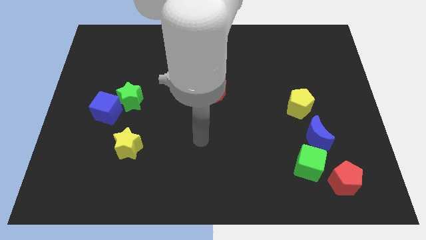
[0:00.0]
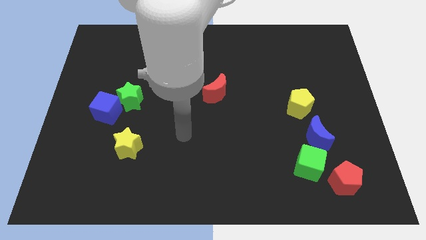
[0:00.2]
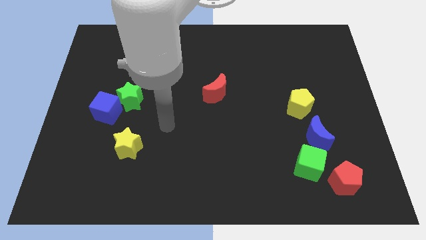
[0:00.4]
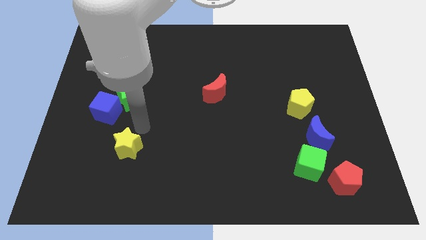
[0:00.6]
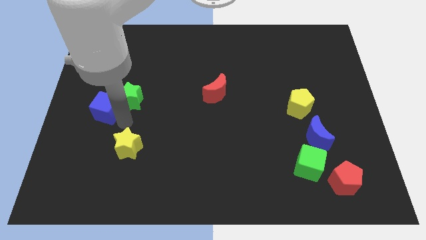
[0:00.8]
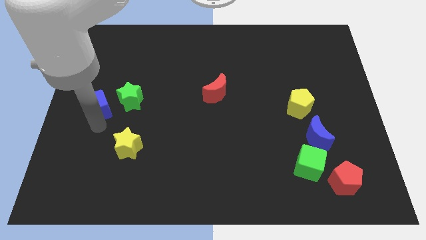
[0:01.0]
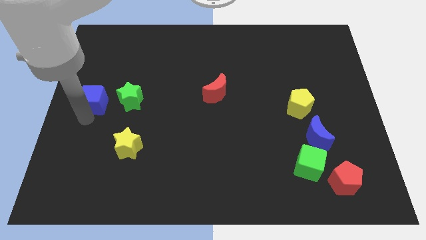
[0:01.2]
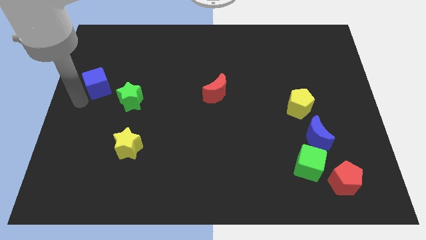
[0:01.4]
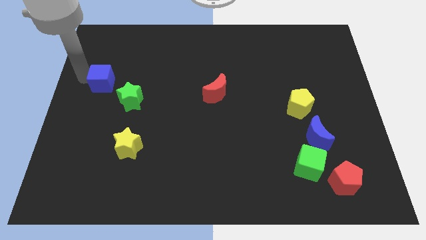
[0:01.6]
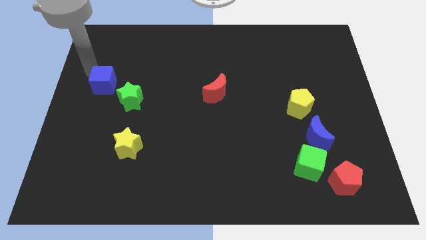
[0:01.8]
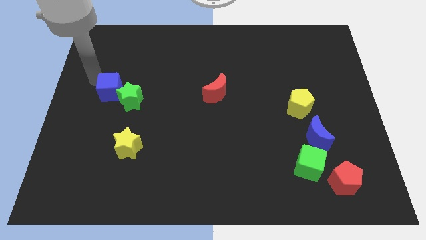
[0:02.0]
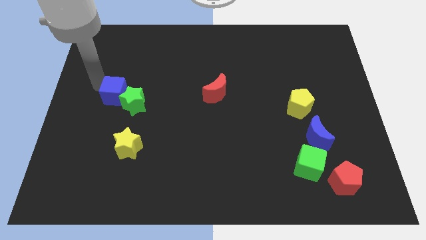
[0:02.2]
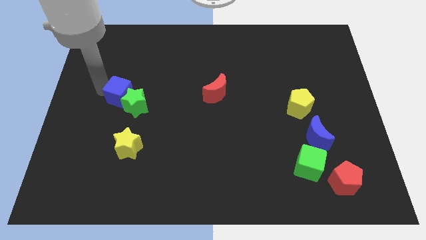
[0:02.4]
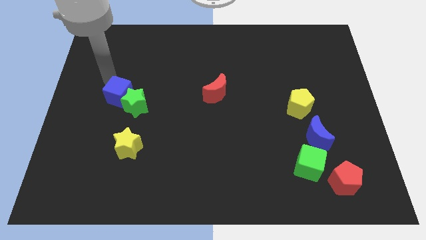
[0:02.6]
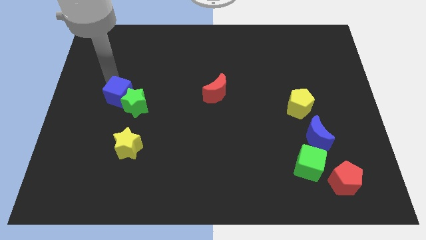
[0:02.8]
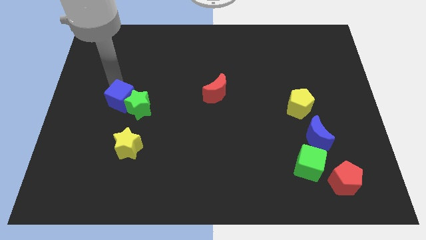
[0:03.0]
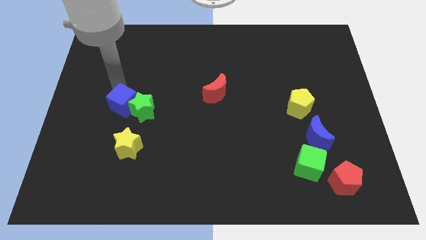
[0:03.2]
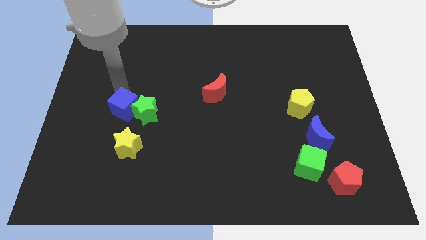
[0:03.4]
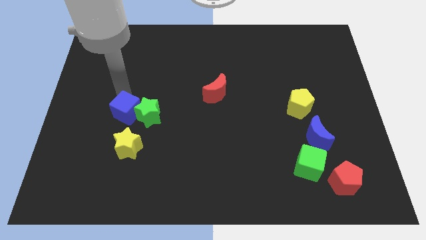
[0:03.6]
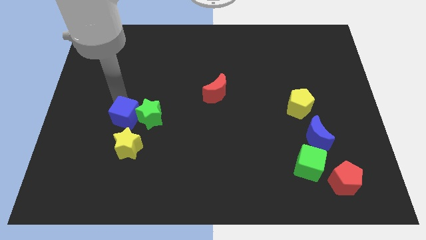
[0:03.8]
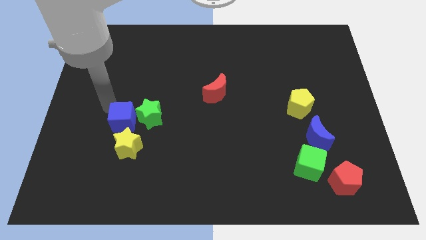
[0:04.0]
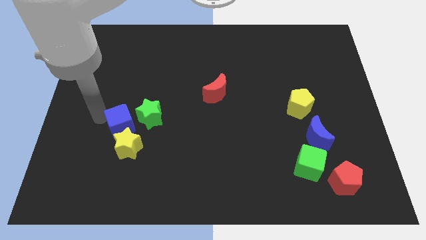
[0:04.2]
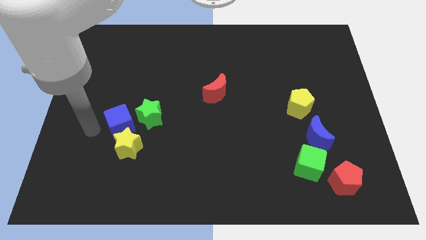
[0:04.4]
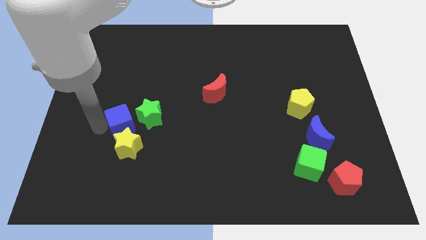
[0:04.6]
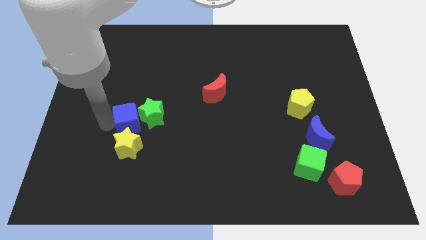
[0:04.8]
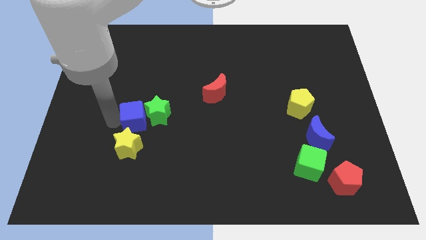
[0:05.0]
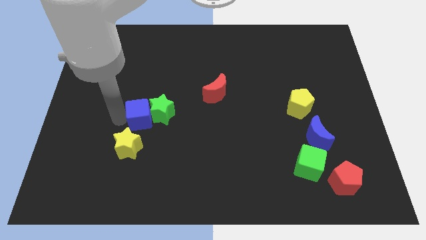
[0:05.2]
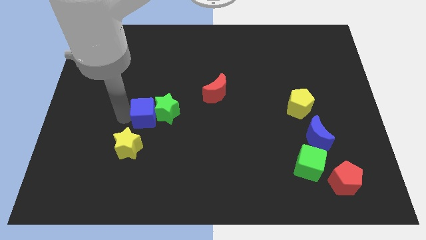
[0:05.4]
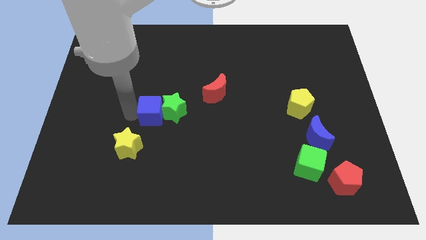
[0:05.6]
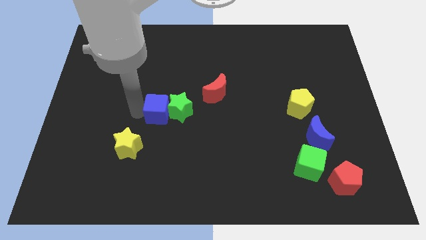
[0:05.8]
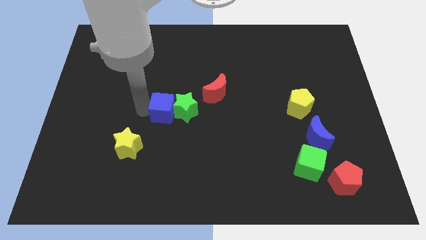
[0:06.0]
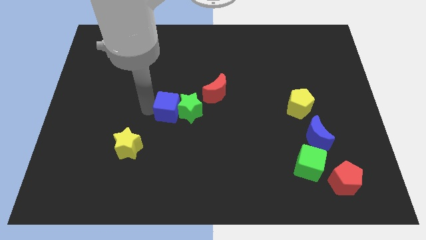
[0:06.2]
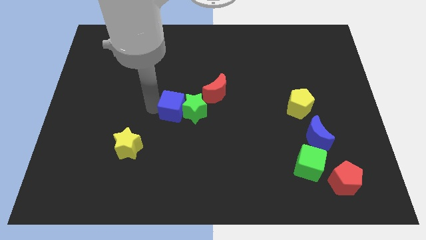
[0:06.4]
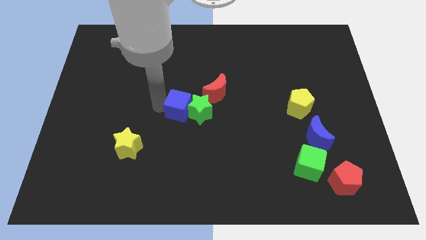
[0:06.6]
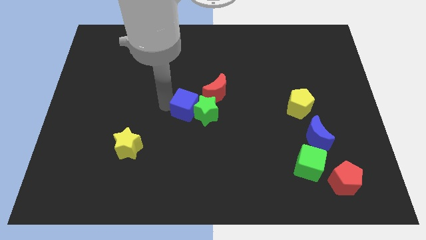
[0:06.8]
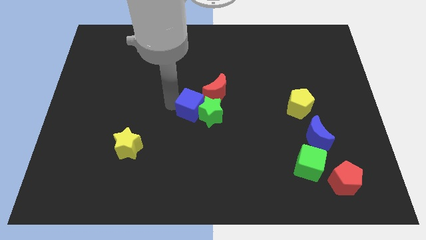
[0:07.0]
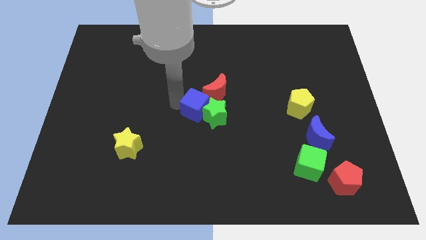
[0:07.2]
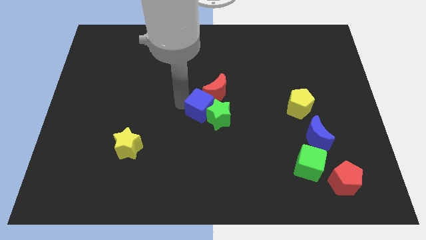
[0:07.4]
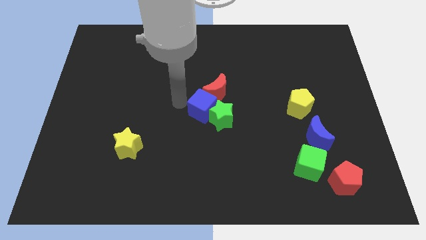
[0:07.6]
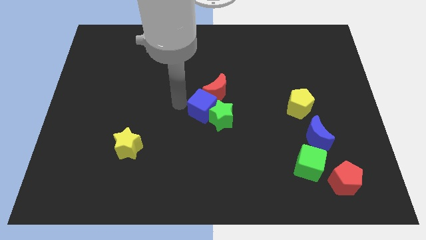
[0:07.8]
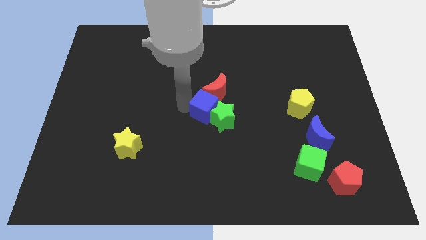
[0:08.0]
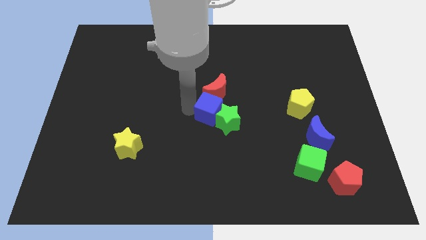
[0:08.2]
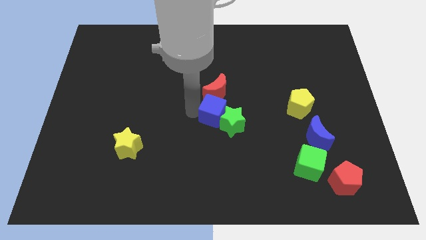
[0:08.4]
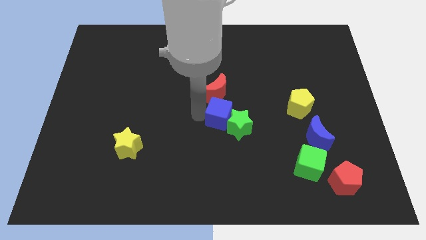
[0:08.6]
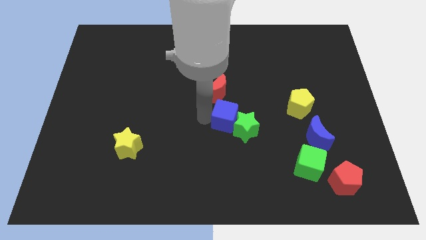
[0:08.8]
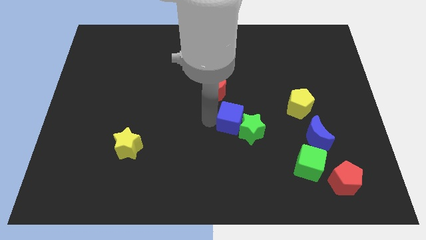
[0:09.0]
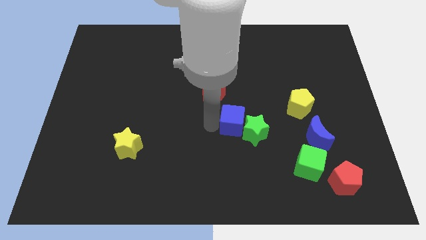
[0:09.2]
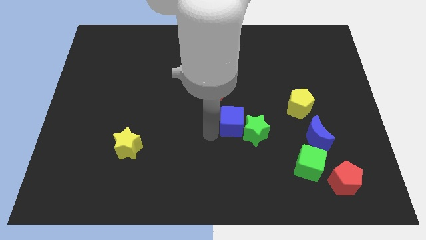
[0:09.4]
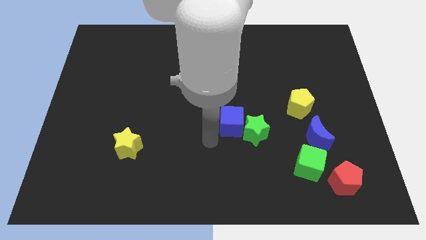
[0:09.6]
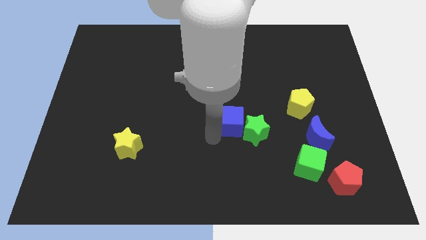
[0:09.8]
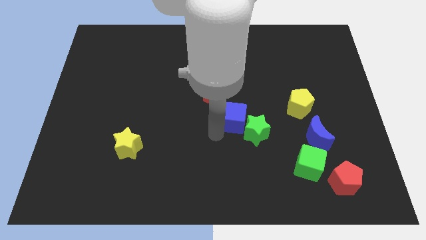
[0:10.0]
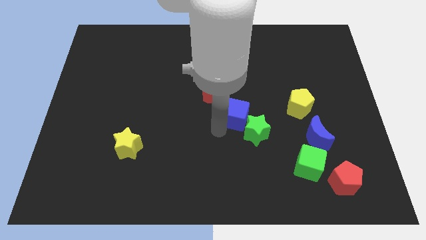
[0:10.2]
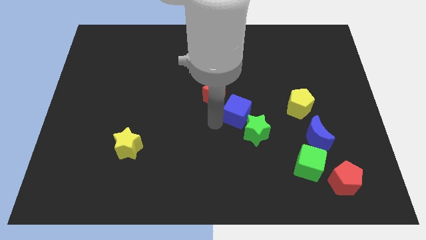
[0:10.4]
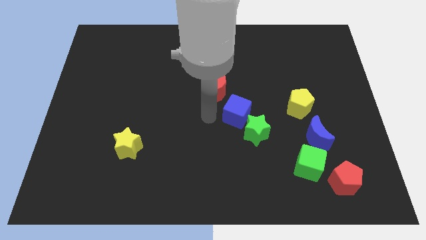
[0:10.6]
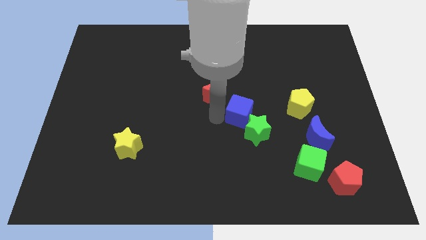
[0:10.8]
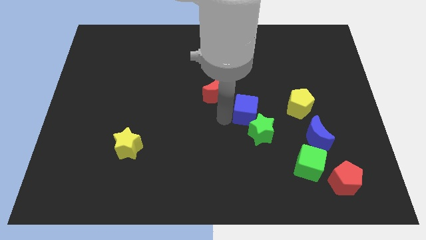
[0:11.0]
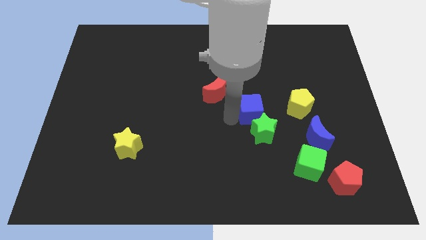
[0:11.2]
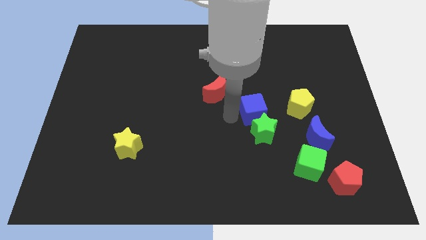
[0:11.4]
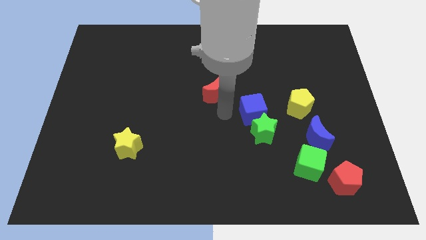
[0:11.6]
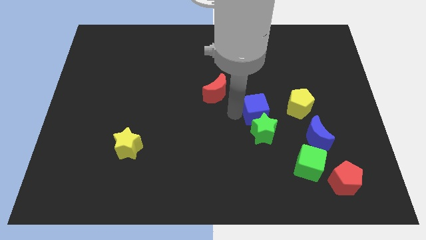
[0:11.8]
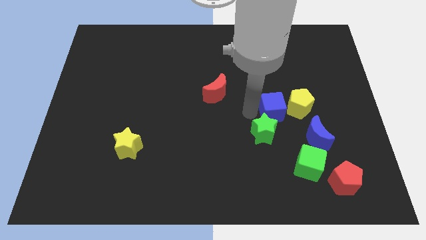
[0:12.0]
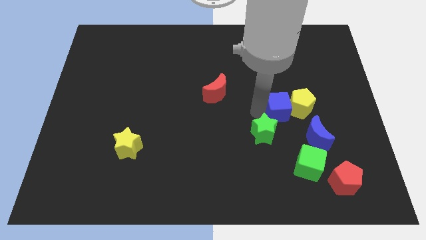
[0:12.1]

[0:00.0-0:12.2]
slide the blue cube close to the yellow pentagon

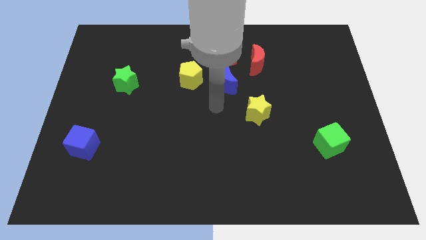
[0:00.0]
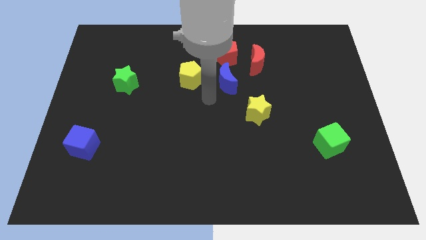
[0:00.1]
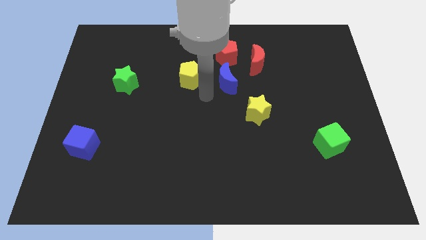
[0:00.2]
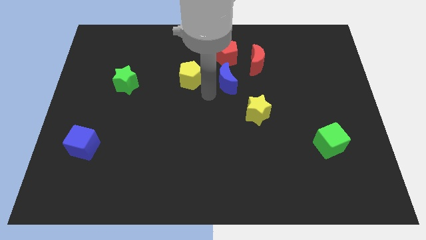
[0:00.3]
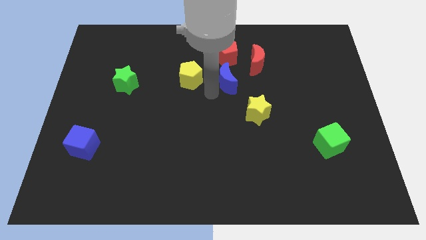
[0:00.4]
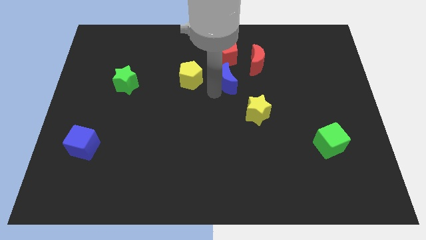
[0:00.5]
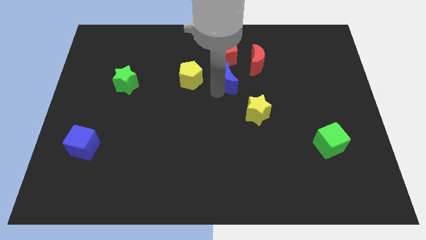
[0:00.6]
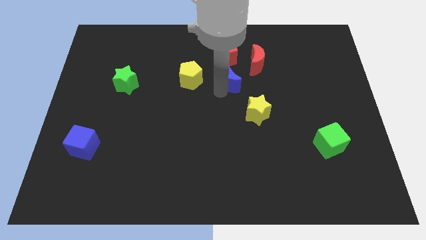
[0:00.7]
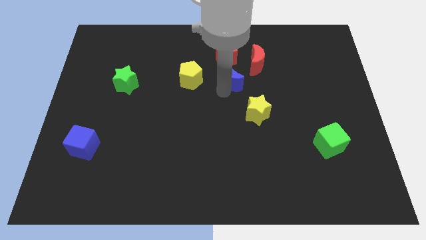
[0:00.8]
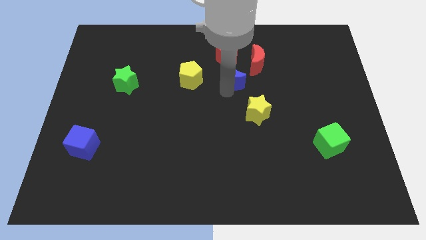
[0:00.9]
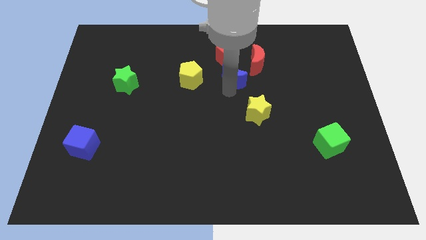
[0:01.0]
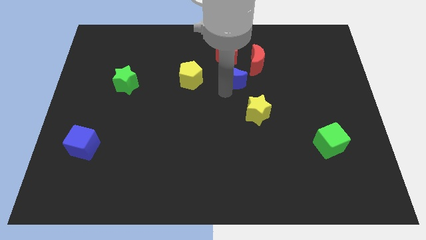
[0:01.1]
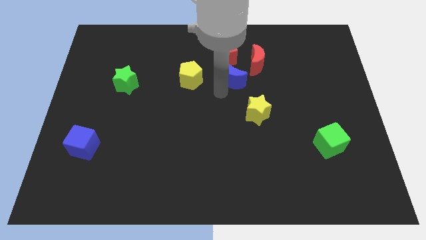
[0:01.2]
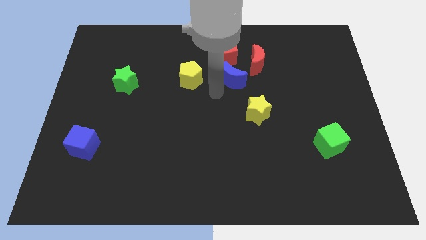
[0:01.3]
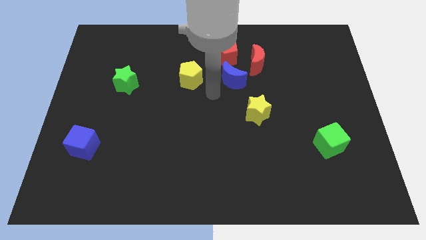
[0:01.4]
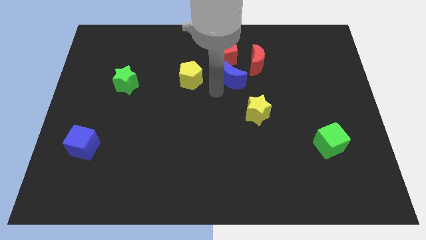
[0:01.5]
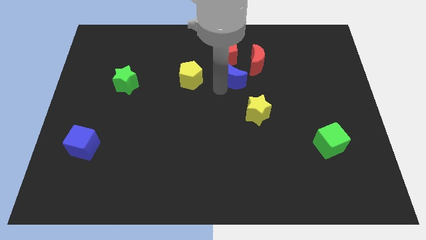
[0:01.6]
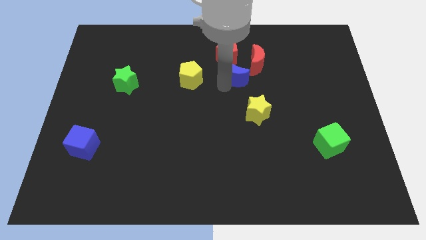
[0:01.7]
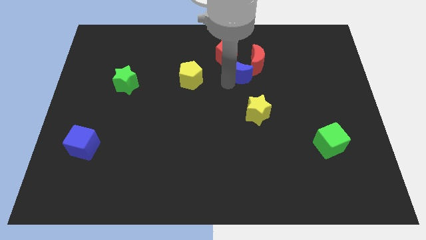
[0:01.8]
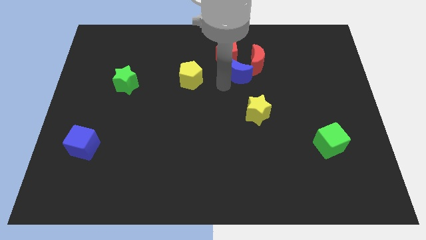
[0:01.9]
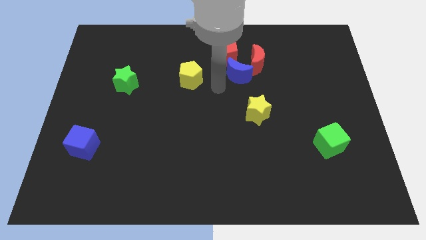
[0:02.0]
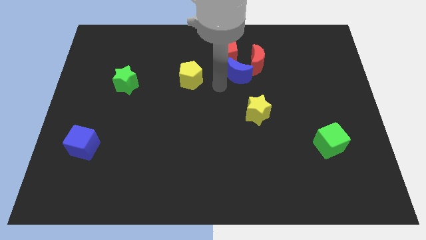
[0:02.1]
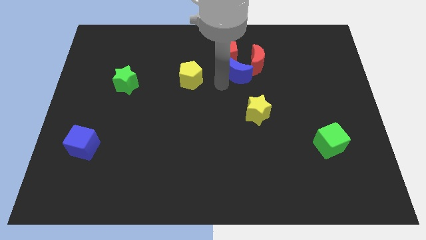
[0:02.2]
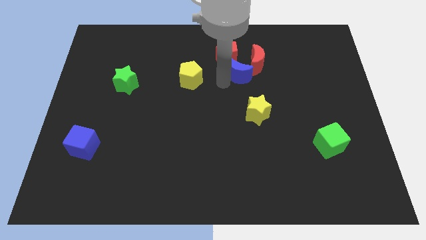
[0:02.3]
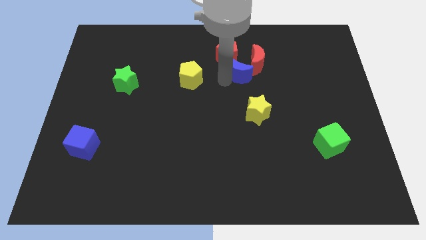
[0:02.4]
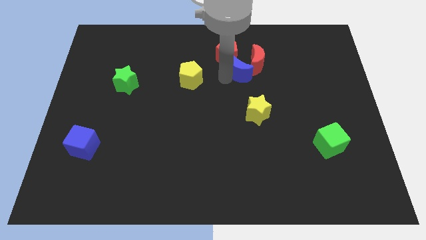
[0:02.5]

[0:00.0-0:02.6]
move the blue moon next to the red moon
